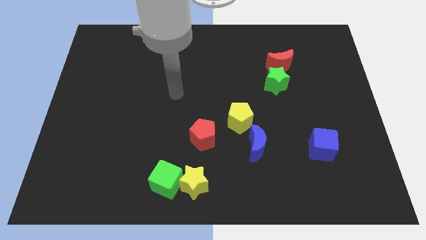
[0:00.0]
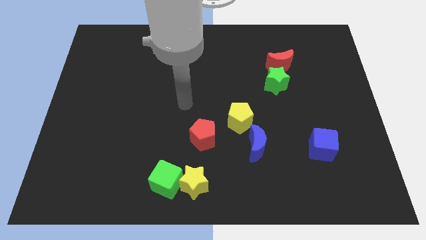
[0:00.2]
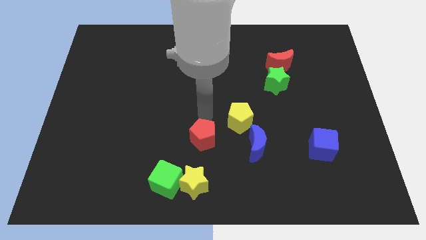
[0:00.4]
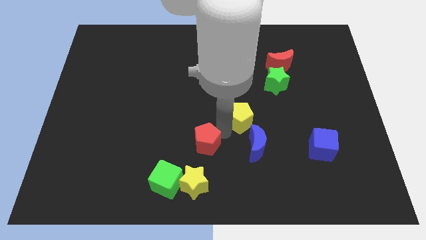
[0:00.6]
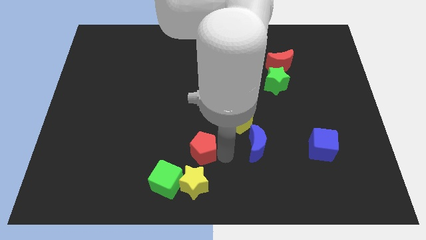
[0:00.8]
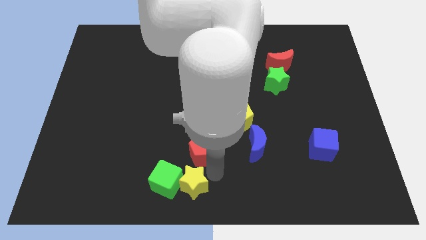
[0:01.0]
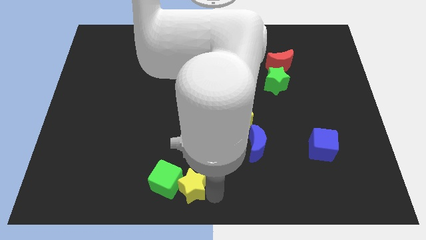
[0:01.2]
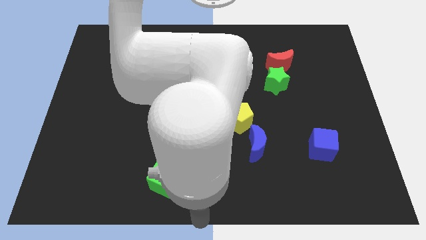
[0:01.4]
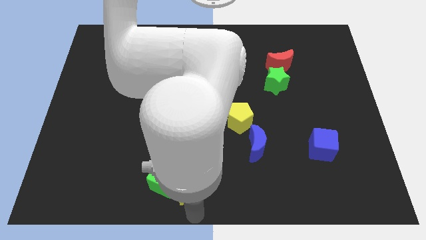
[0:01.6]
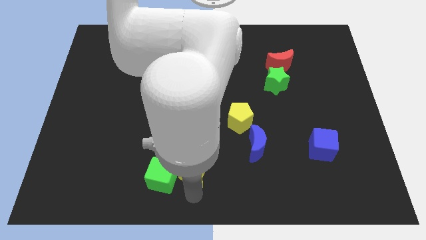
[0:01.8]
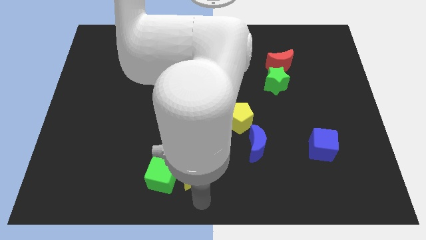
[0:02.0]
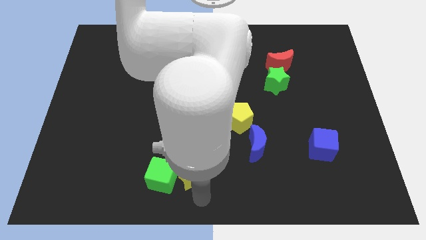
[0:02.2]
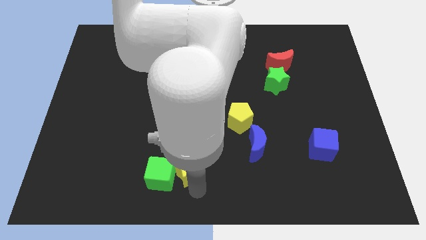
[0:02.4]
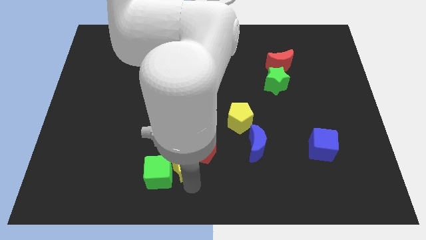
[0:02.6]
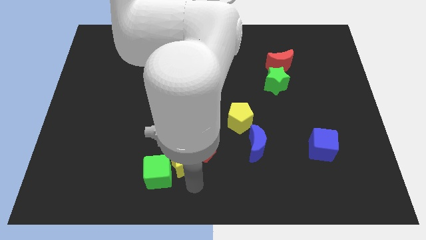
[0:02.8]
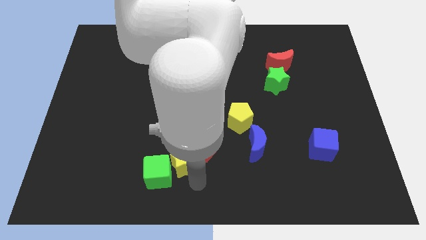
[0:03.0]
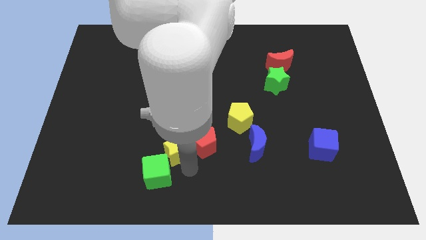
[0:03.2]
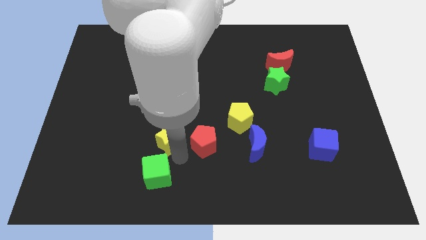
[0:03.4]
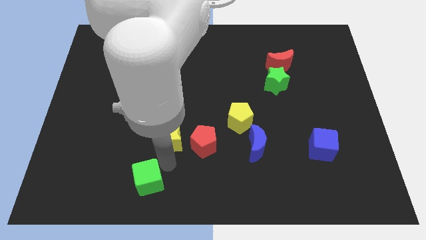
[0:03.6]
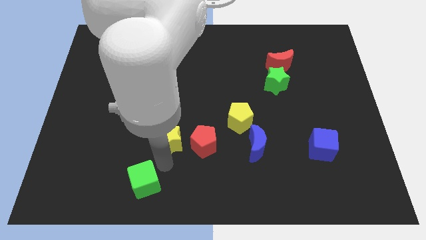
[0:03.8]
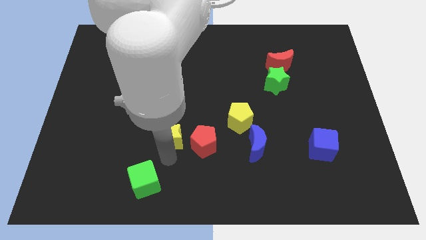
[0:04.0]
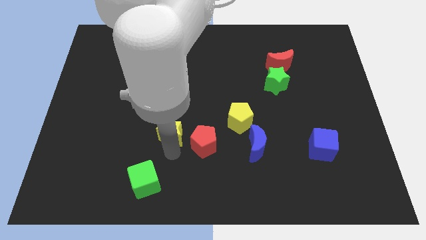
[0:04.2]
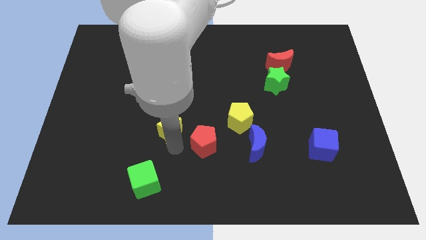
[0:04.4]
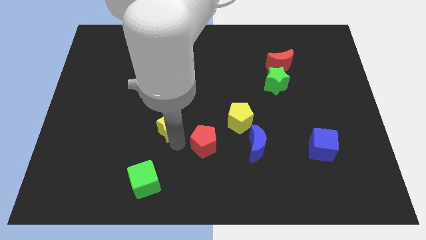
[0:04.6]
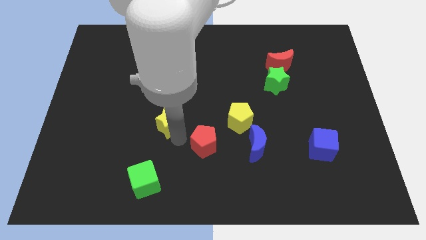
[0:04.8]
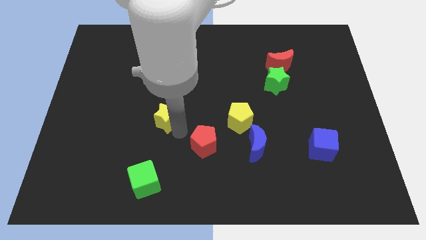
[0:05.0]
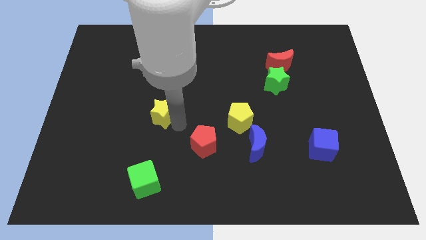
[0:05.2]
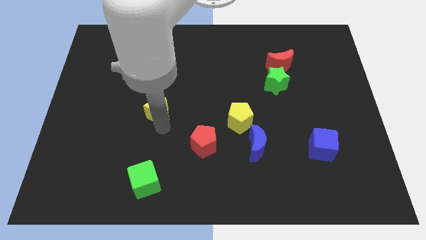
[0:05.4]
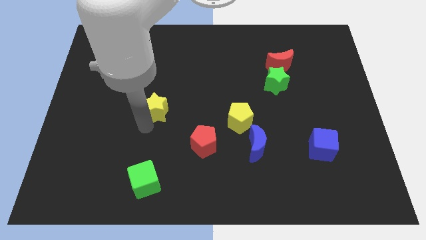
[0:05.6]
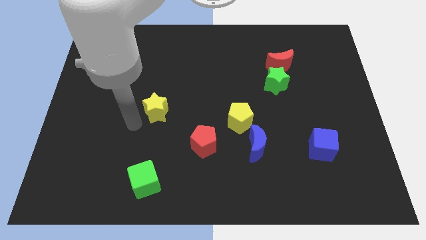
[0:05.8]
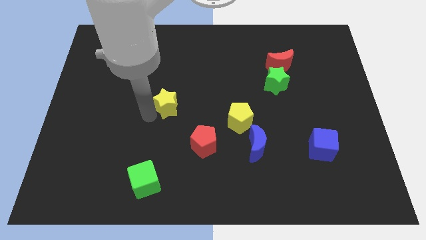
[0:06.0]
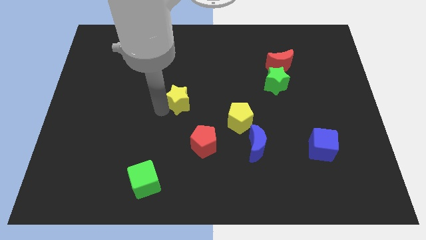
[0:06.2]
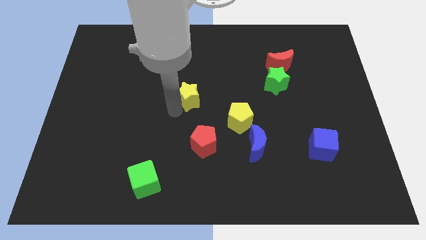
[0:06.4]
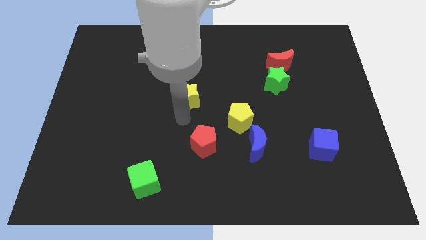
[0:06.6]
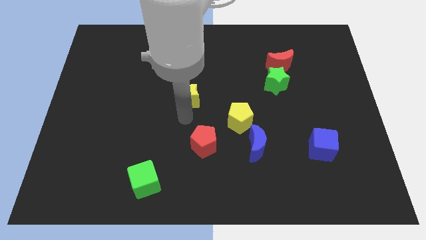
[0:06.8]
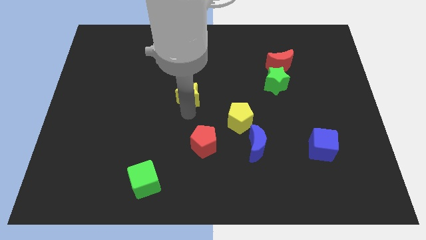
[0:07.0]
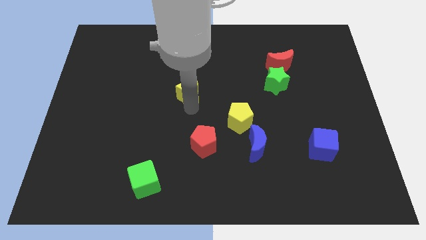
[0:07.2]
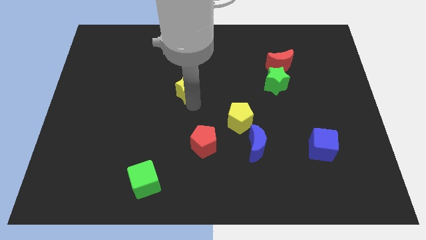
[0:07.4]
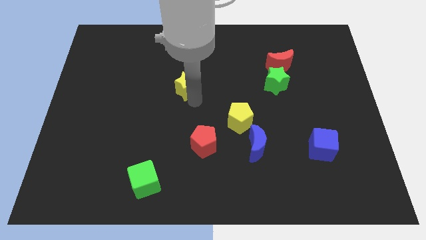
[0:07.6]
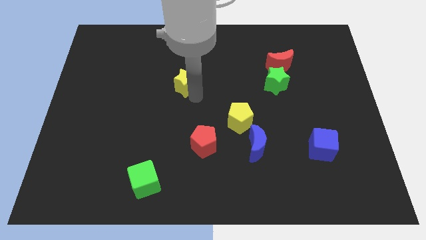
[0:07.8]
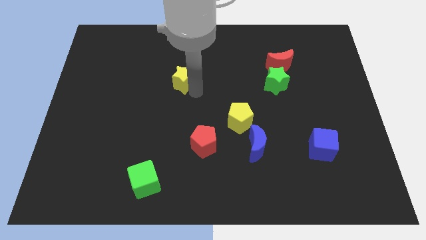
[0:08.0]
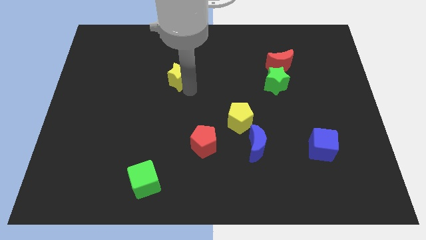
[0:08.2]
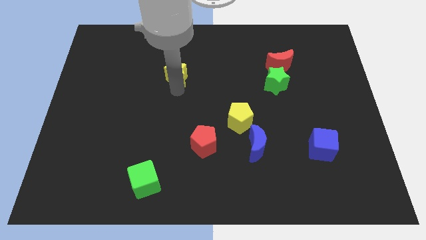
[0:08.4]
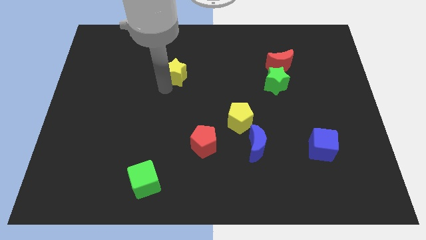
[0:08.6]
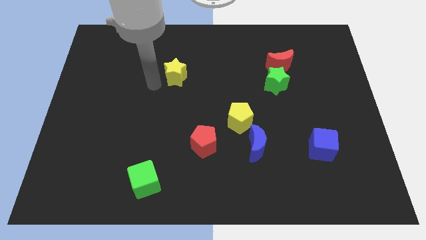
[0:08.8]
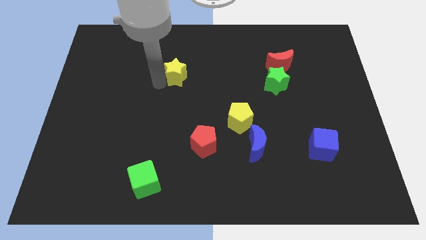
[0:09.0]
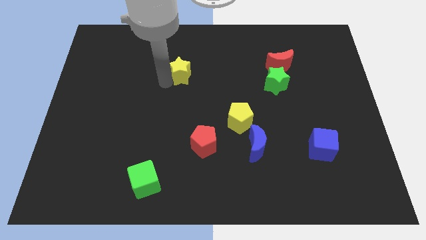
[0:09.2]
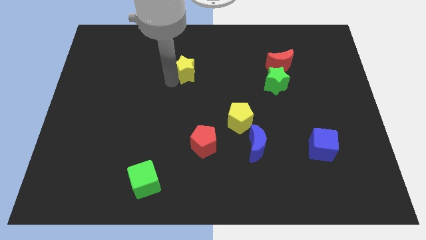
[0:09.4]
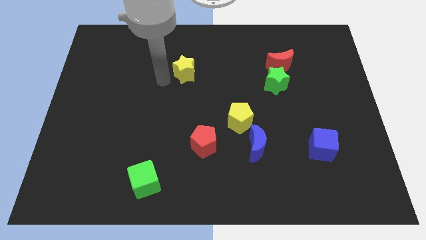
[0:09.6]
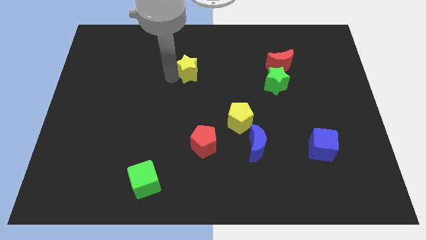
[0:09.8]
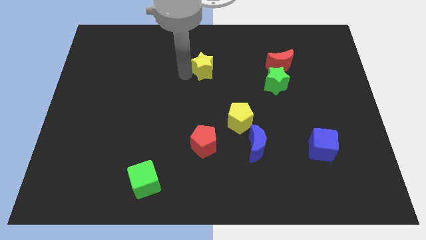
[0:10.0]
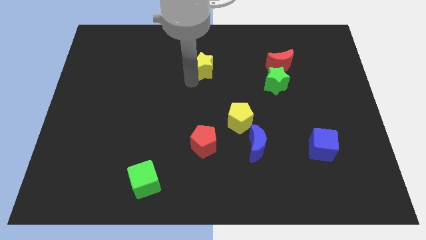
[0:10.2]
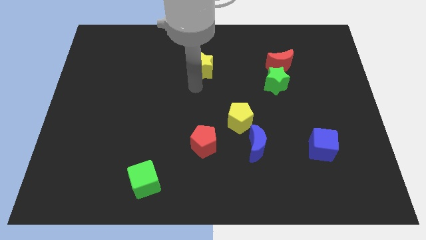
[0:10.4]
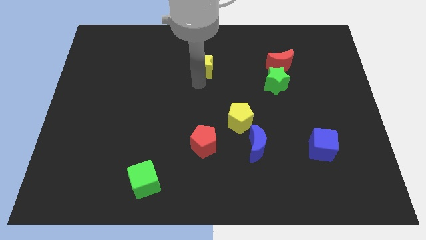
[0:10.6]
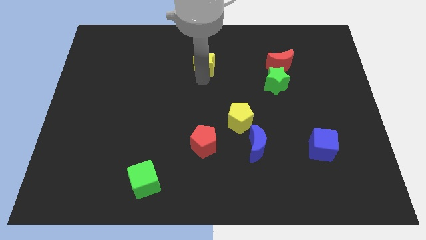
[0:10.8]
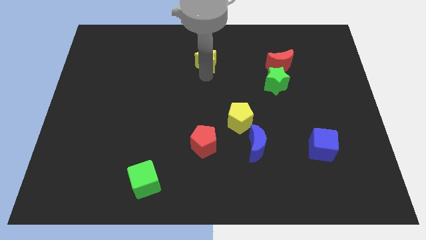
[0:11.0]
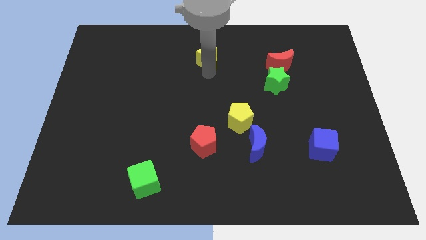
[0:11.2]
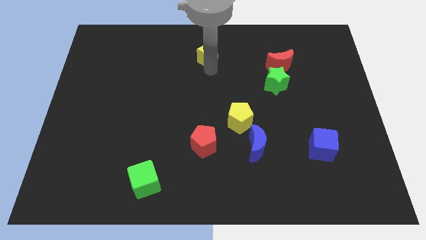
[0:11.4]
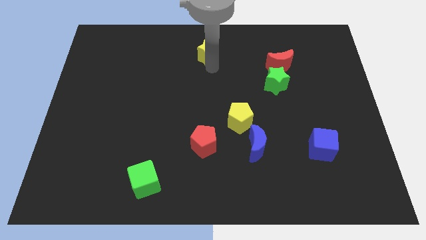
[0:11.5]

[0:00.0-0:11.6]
push the yellow star to the top

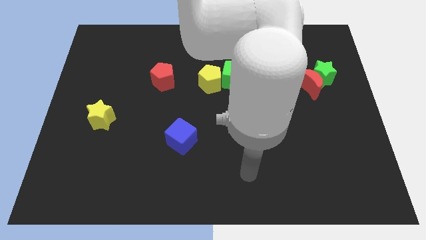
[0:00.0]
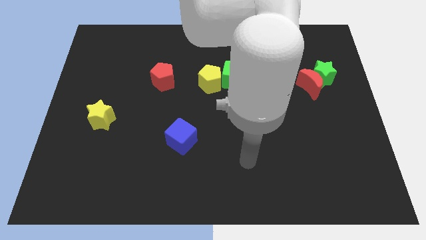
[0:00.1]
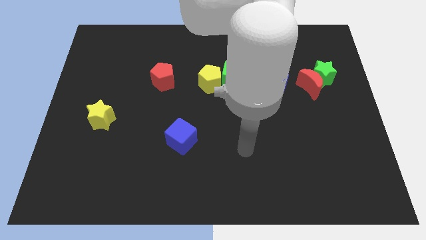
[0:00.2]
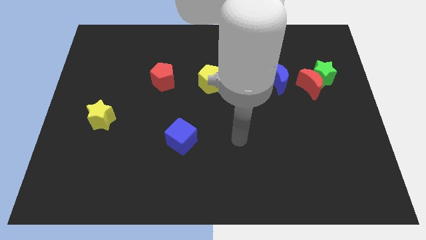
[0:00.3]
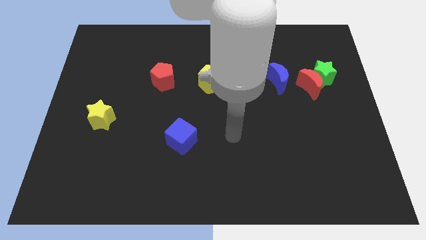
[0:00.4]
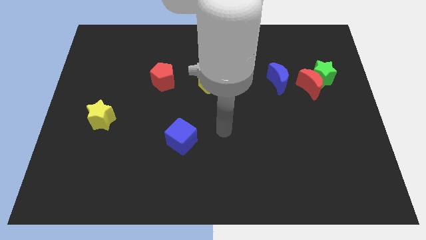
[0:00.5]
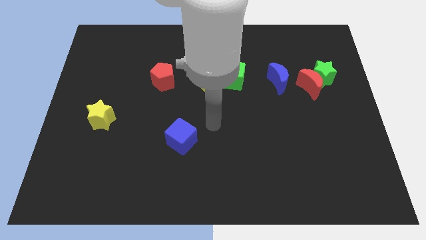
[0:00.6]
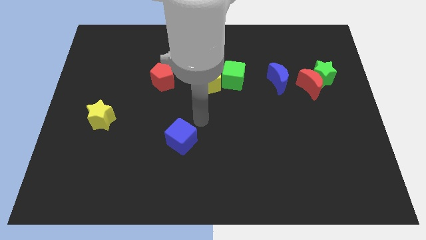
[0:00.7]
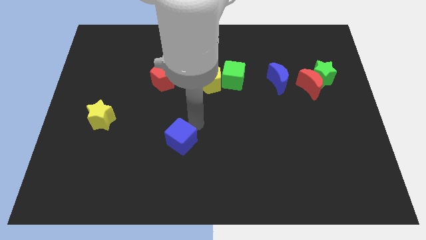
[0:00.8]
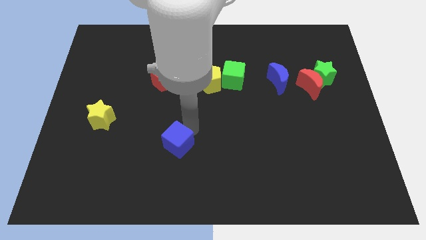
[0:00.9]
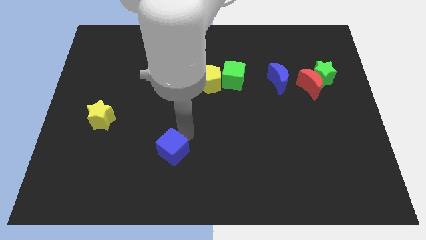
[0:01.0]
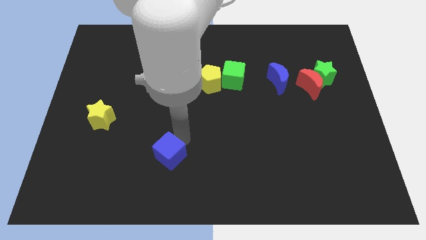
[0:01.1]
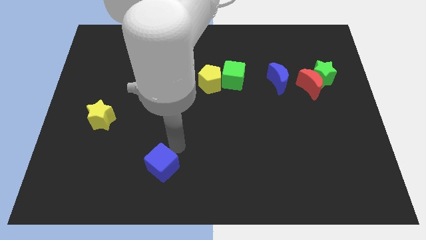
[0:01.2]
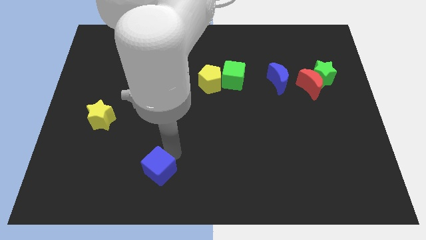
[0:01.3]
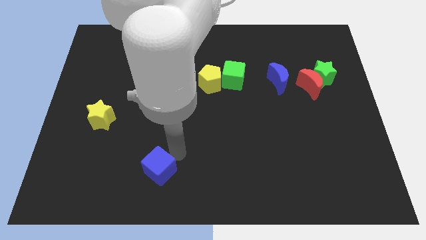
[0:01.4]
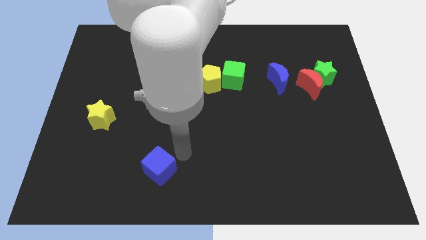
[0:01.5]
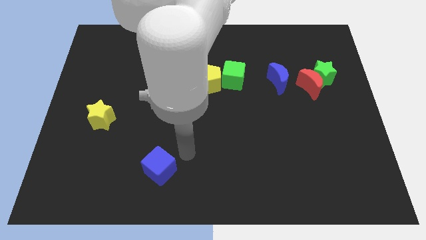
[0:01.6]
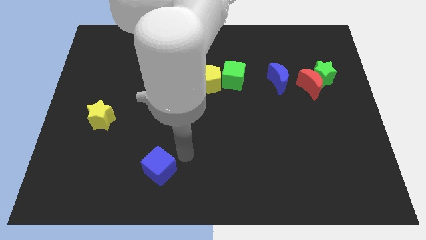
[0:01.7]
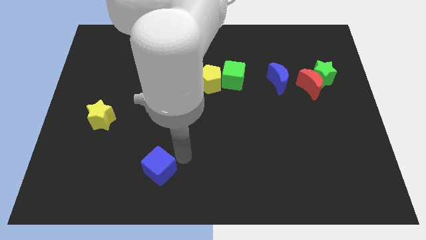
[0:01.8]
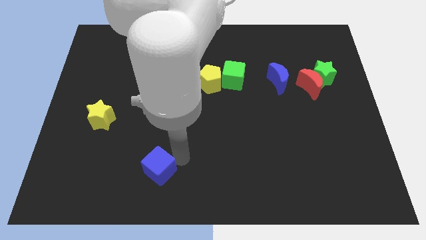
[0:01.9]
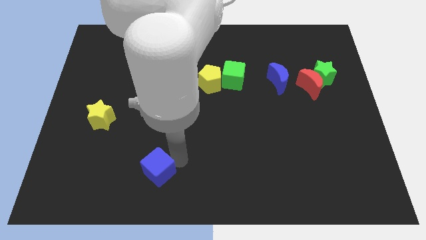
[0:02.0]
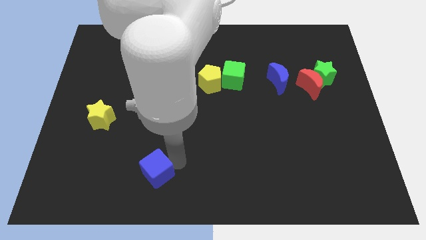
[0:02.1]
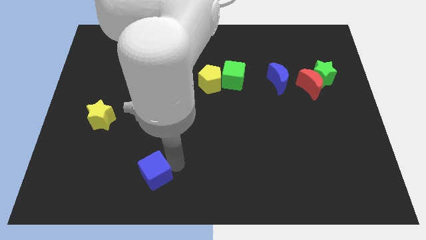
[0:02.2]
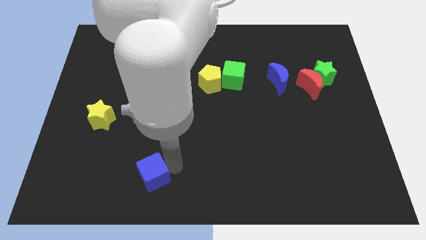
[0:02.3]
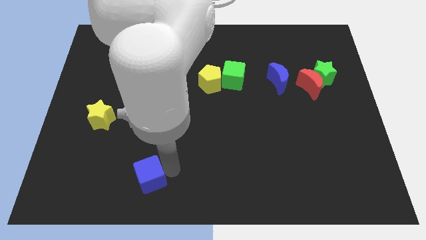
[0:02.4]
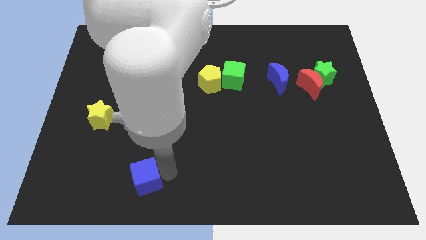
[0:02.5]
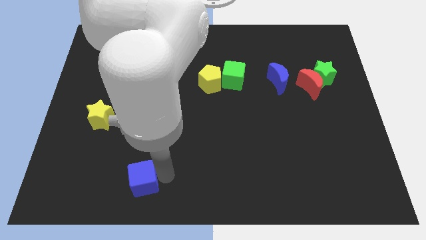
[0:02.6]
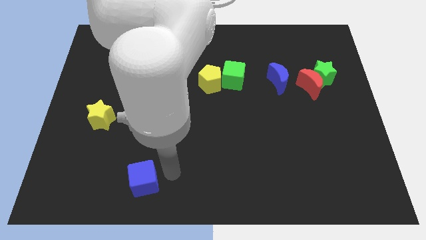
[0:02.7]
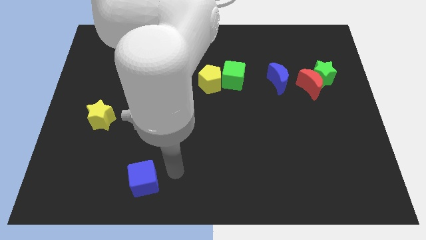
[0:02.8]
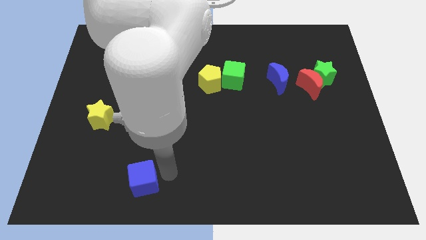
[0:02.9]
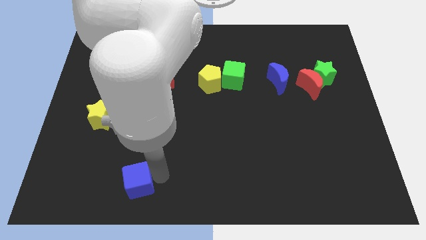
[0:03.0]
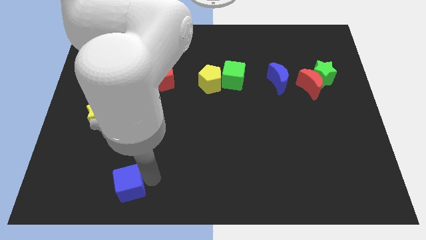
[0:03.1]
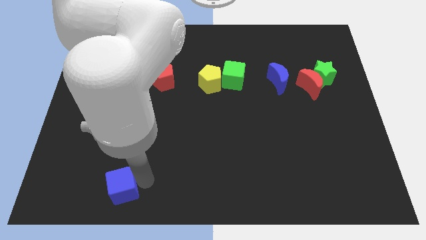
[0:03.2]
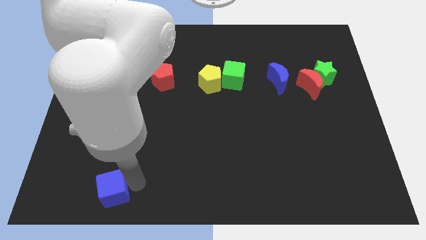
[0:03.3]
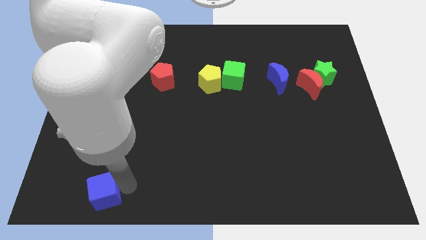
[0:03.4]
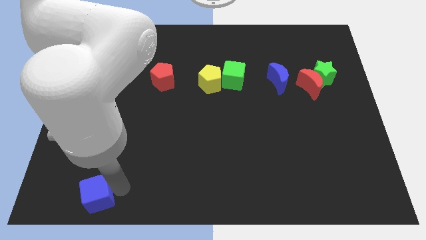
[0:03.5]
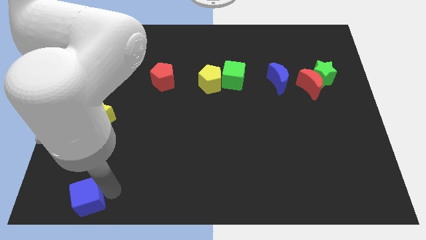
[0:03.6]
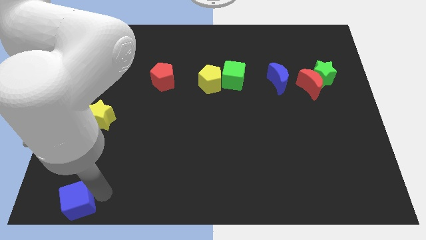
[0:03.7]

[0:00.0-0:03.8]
slide the blue cube to the lower left corner
